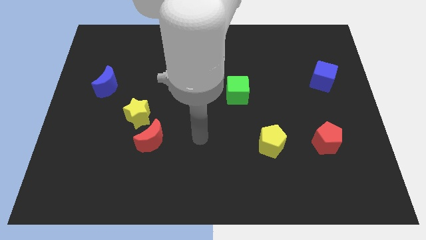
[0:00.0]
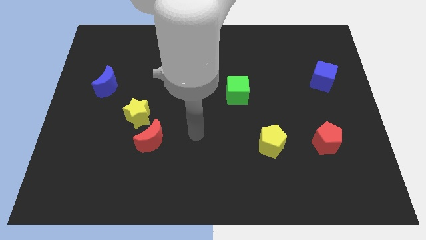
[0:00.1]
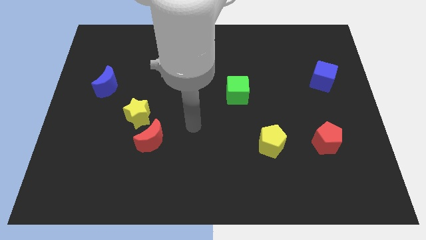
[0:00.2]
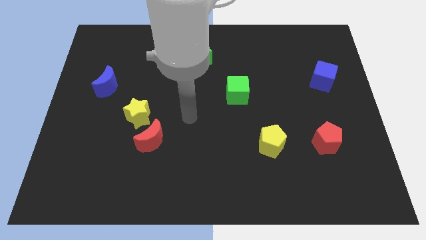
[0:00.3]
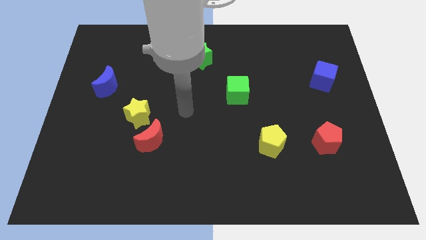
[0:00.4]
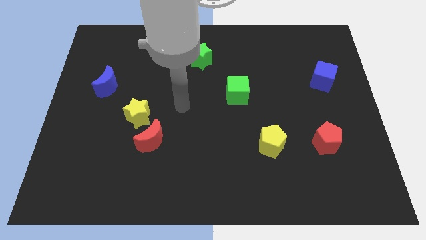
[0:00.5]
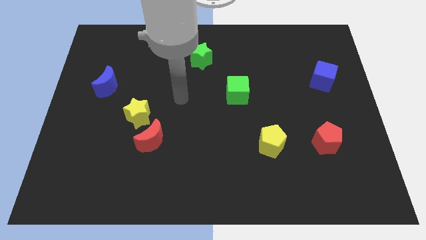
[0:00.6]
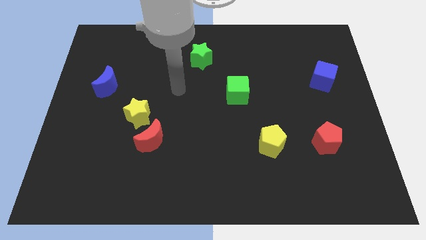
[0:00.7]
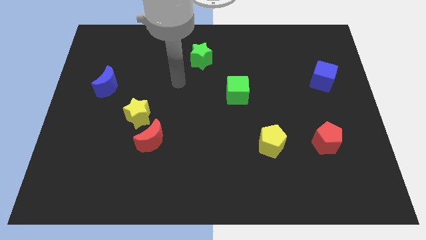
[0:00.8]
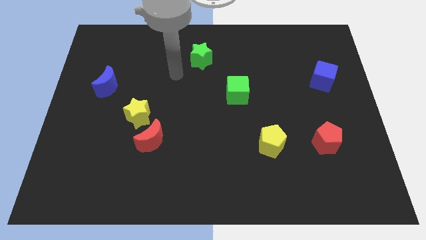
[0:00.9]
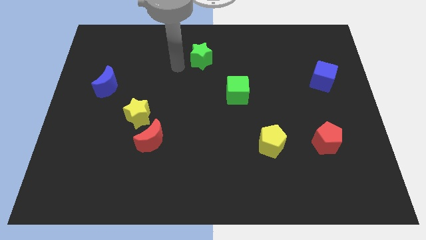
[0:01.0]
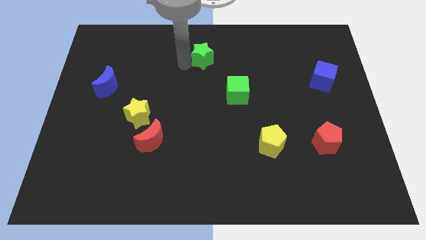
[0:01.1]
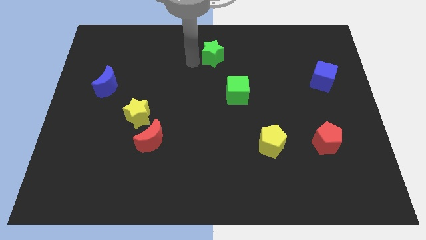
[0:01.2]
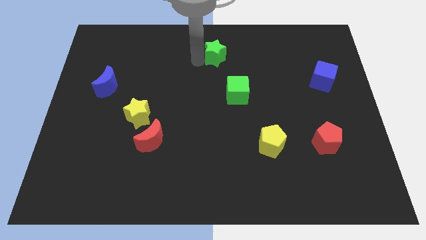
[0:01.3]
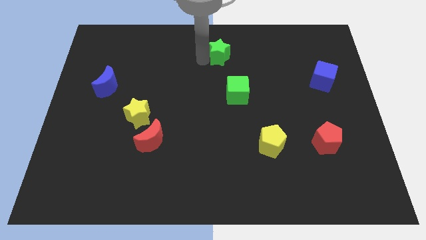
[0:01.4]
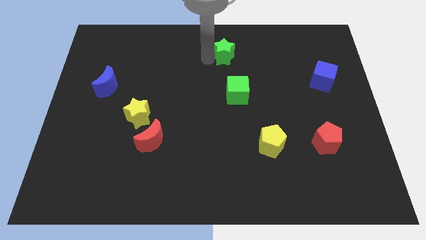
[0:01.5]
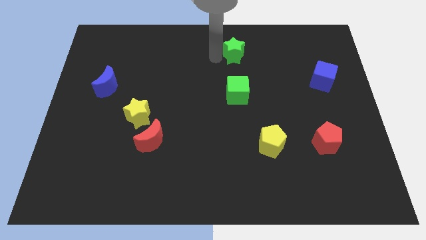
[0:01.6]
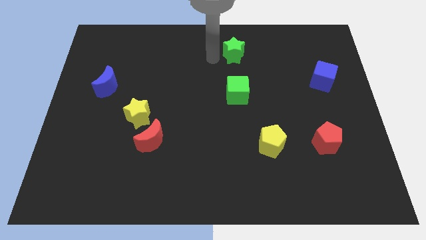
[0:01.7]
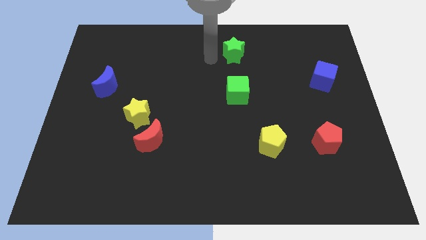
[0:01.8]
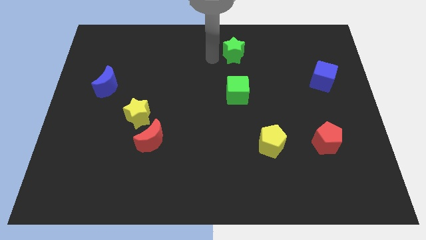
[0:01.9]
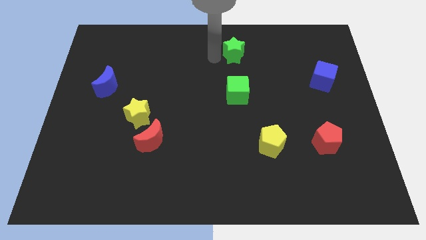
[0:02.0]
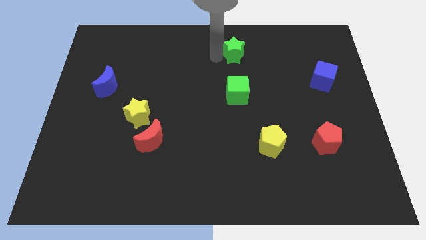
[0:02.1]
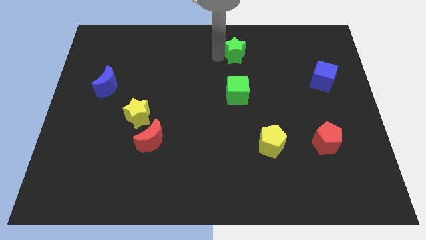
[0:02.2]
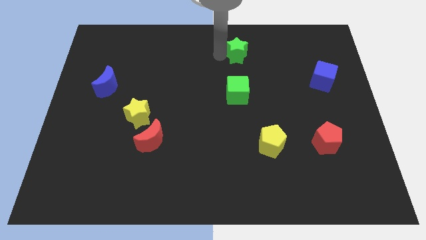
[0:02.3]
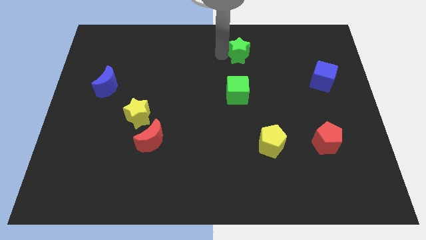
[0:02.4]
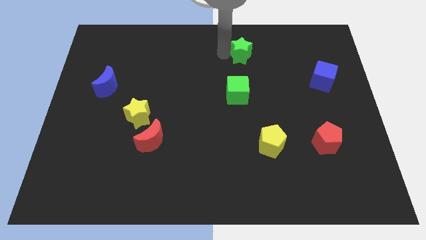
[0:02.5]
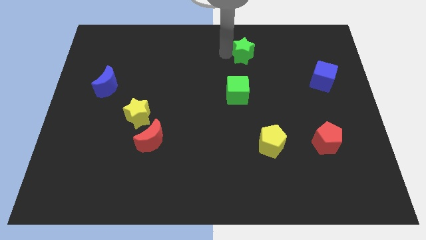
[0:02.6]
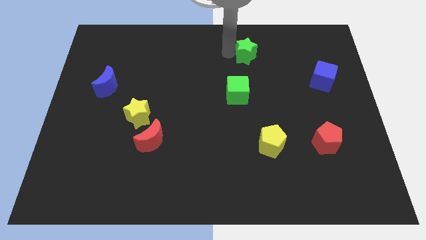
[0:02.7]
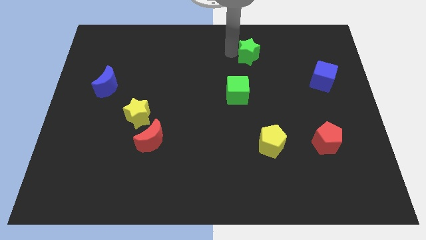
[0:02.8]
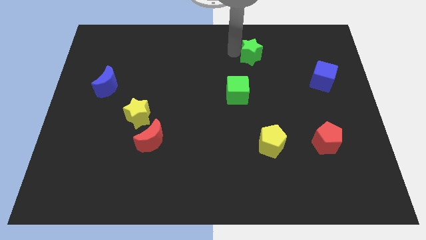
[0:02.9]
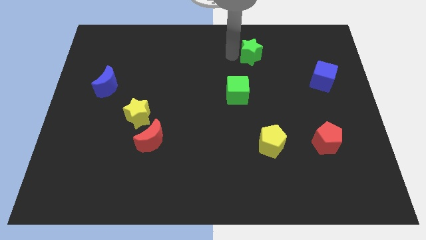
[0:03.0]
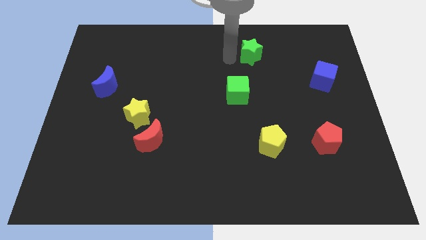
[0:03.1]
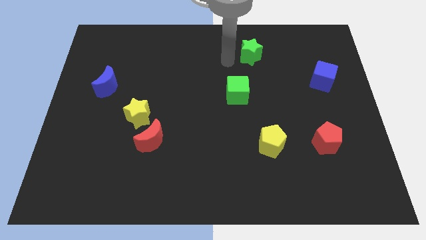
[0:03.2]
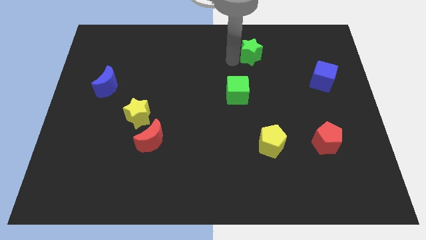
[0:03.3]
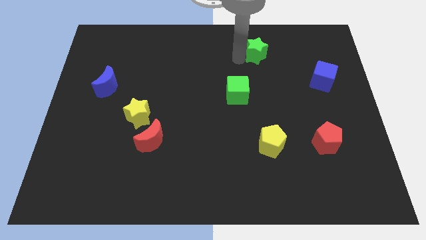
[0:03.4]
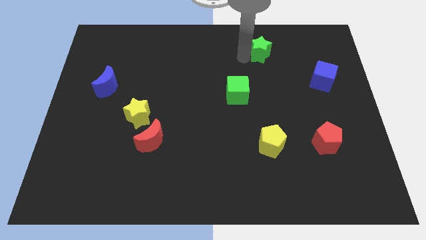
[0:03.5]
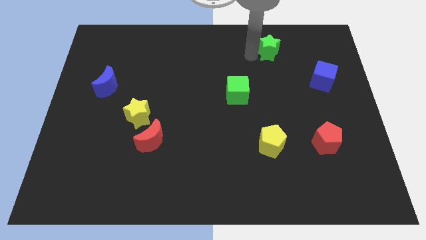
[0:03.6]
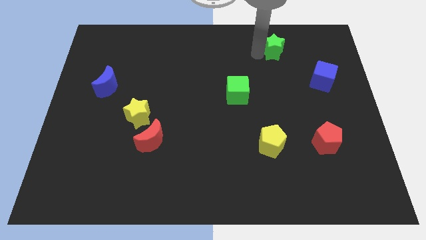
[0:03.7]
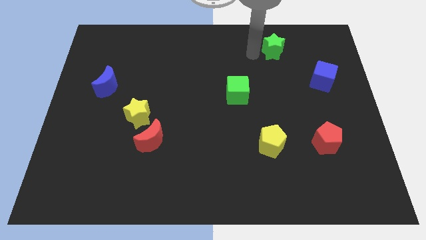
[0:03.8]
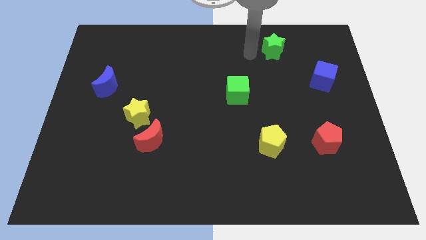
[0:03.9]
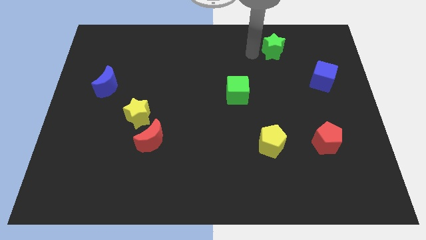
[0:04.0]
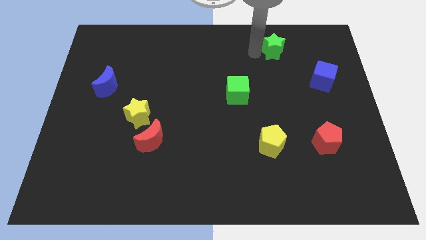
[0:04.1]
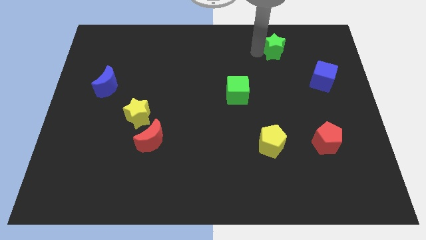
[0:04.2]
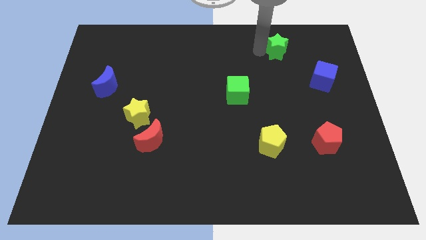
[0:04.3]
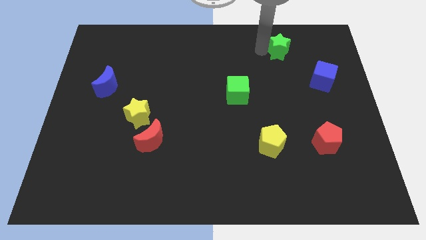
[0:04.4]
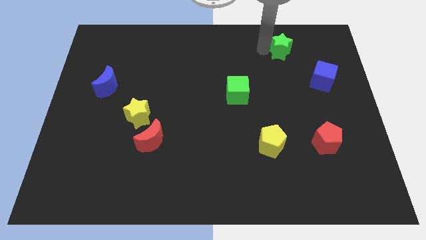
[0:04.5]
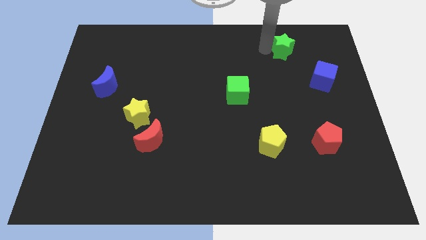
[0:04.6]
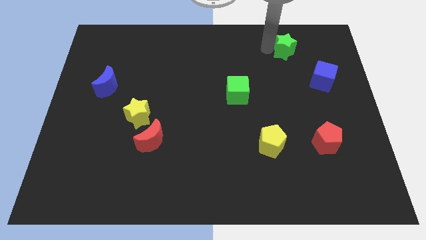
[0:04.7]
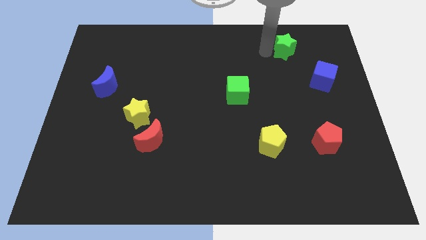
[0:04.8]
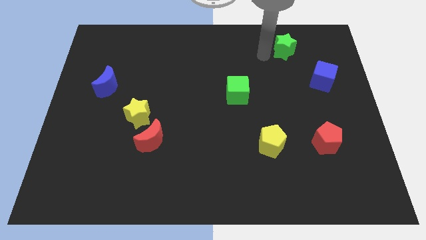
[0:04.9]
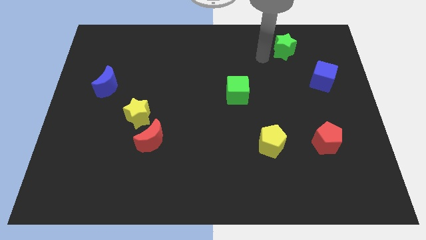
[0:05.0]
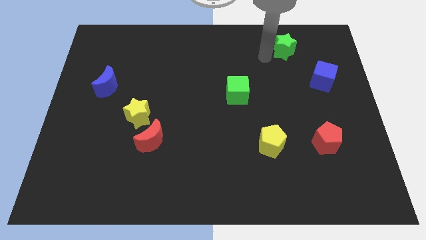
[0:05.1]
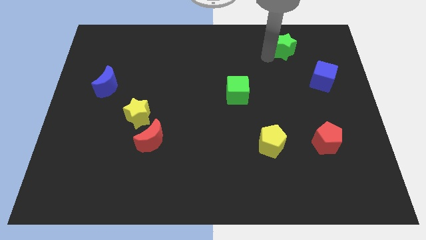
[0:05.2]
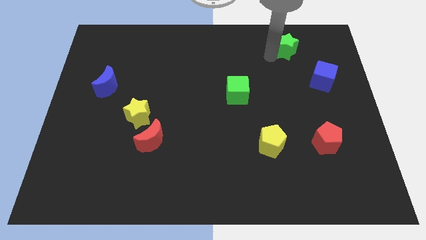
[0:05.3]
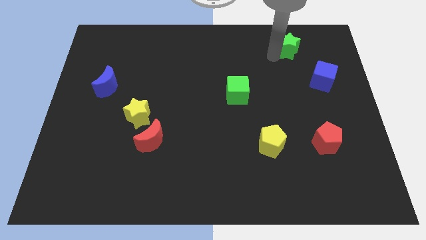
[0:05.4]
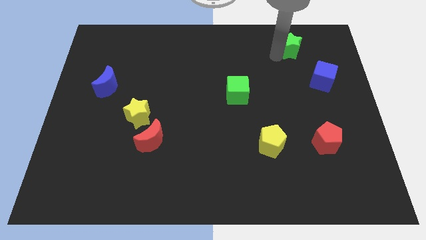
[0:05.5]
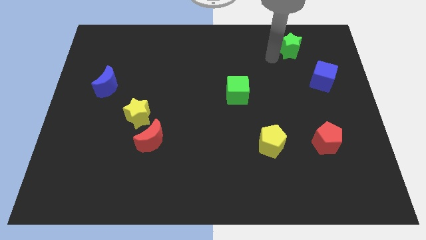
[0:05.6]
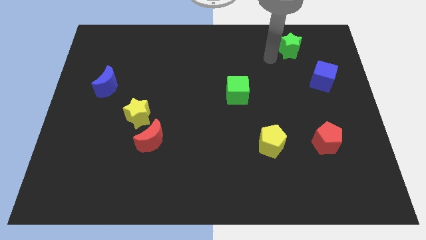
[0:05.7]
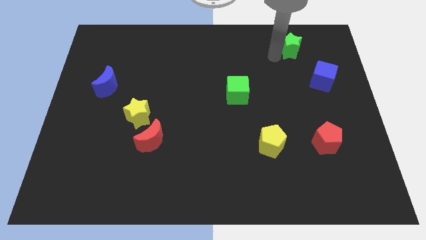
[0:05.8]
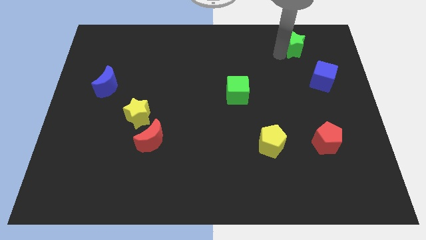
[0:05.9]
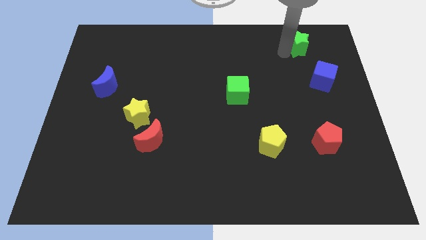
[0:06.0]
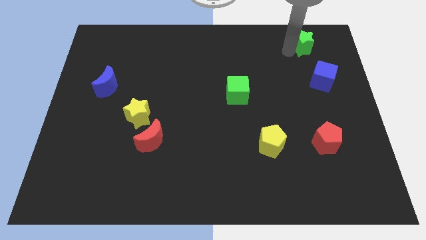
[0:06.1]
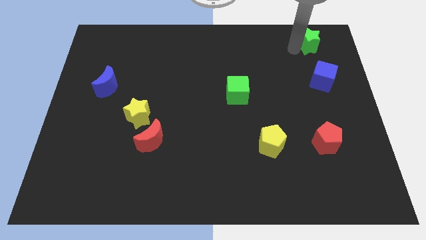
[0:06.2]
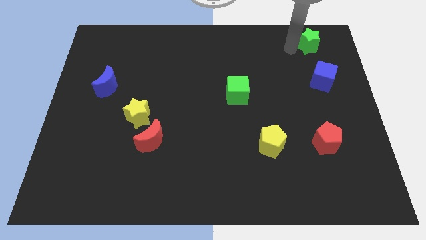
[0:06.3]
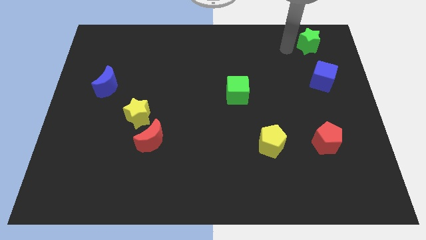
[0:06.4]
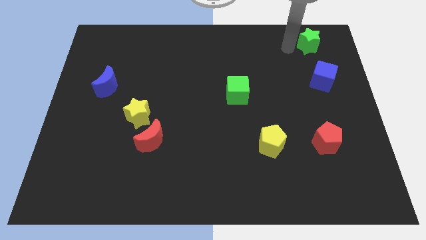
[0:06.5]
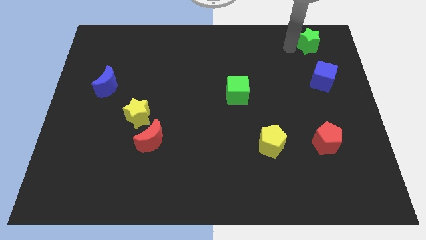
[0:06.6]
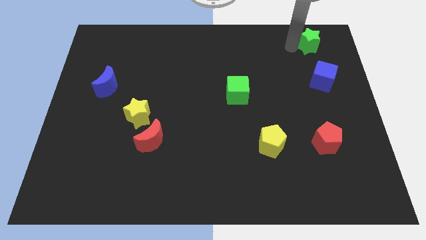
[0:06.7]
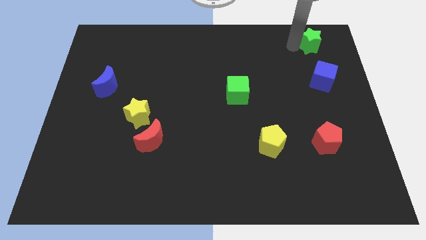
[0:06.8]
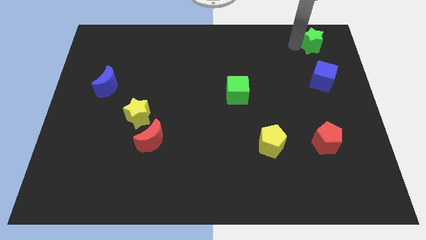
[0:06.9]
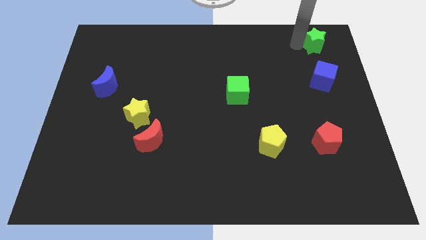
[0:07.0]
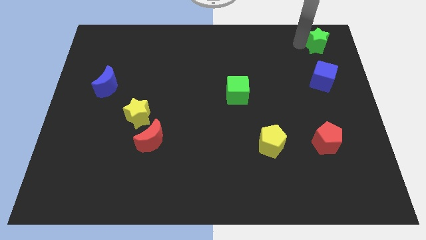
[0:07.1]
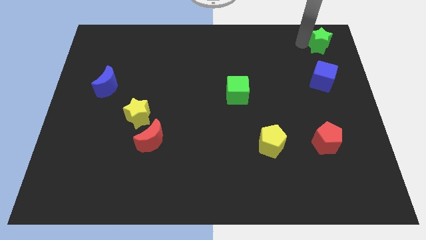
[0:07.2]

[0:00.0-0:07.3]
put the green star to the top right

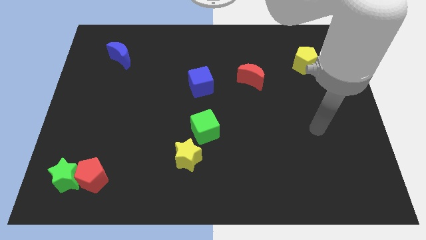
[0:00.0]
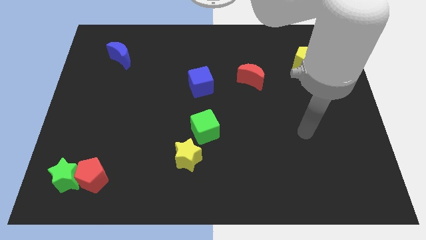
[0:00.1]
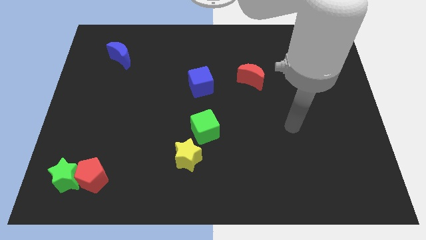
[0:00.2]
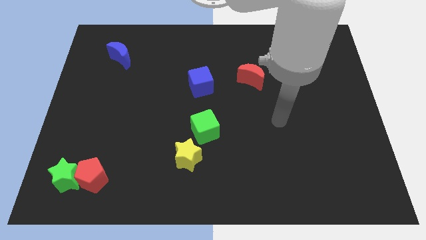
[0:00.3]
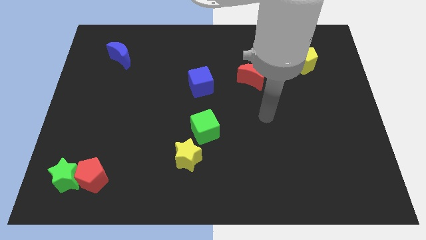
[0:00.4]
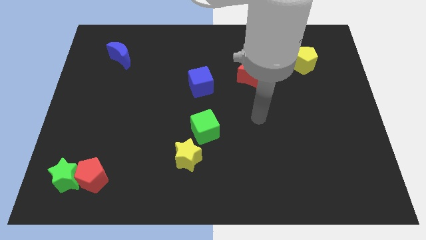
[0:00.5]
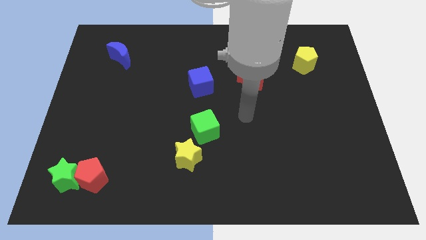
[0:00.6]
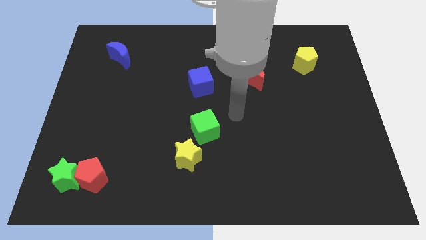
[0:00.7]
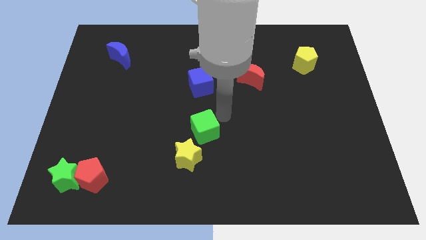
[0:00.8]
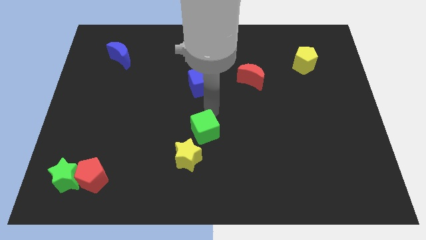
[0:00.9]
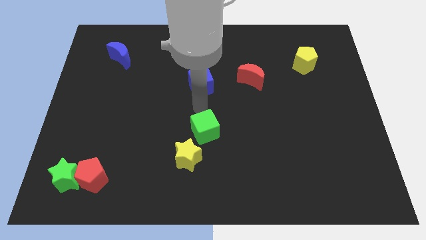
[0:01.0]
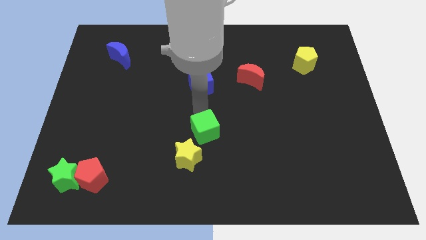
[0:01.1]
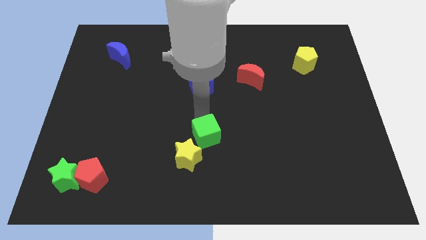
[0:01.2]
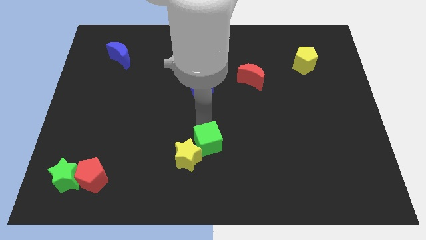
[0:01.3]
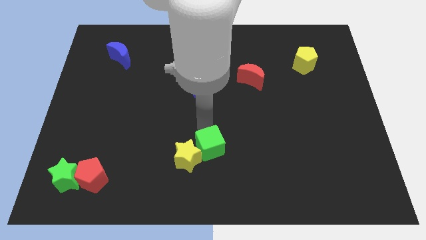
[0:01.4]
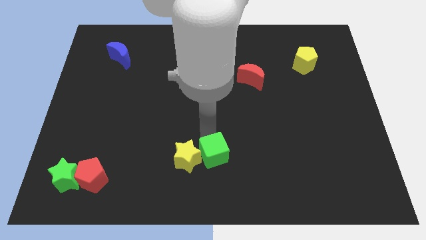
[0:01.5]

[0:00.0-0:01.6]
move the green cube to the bottom
